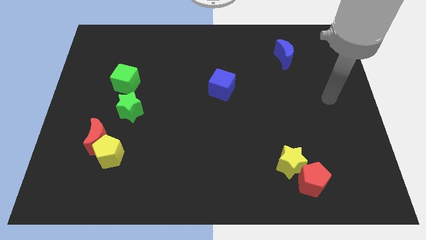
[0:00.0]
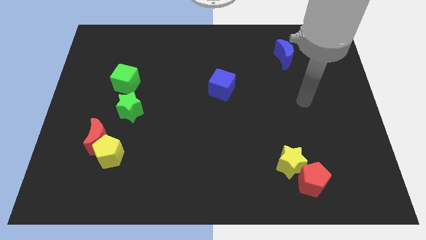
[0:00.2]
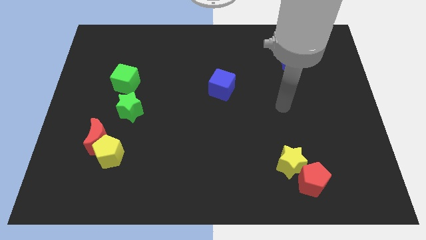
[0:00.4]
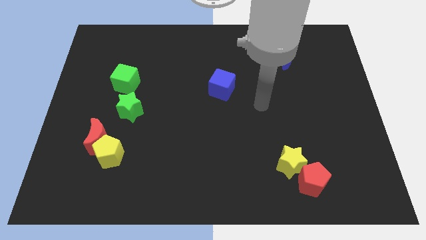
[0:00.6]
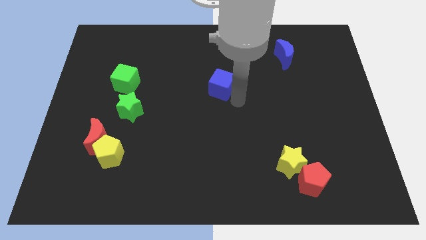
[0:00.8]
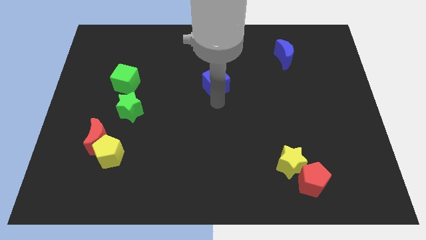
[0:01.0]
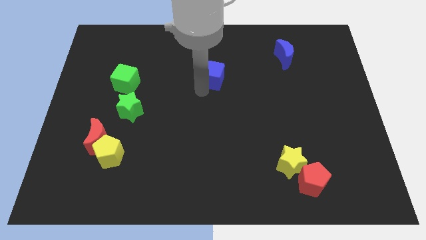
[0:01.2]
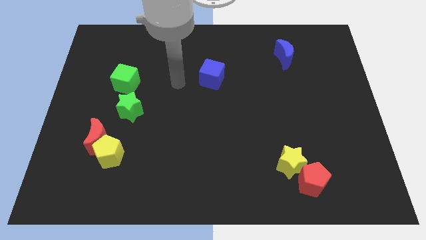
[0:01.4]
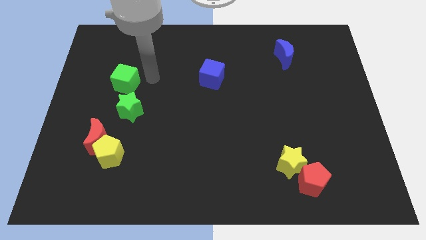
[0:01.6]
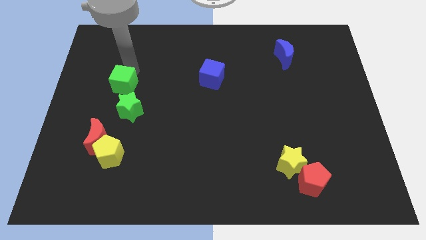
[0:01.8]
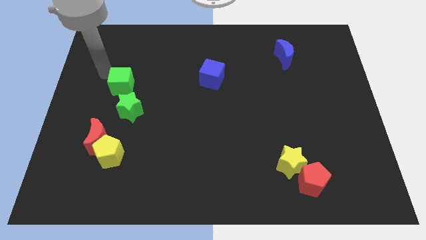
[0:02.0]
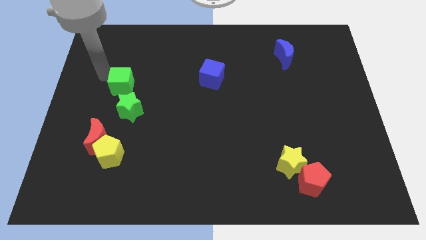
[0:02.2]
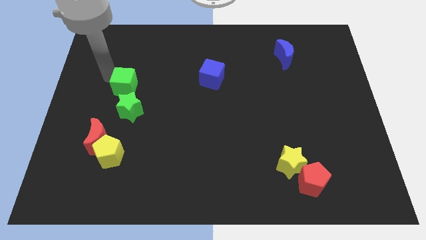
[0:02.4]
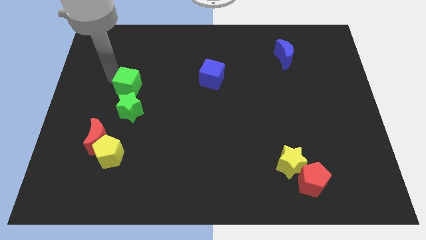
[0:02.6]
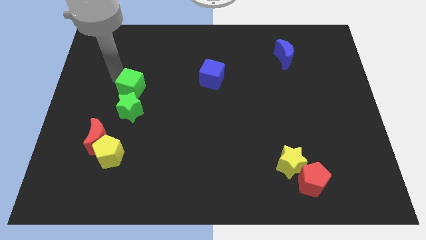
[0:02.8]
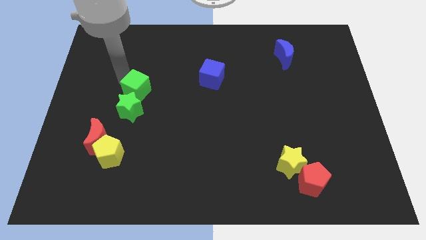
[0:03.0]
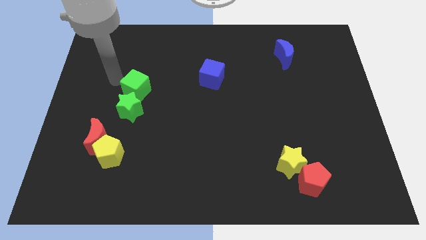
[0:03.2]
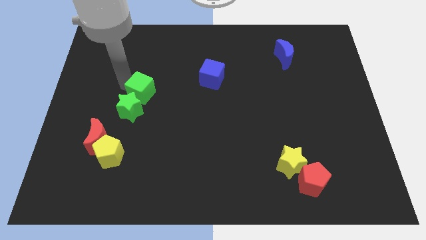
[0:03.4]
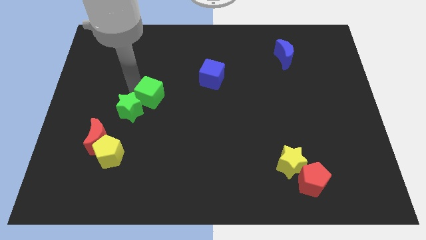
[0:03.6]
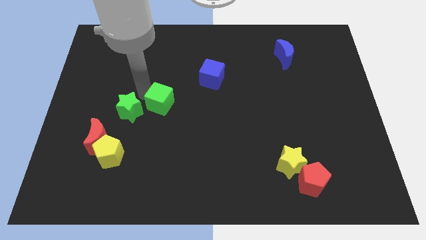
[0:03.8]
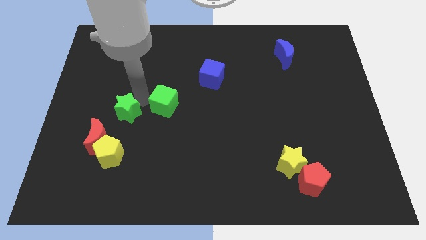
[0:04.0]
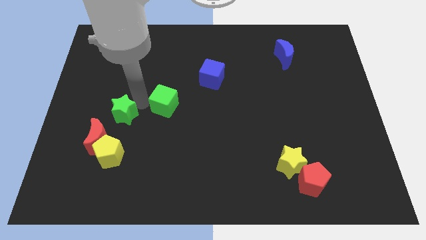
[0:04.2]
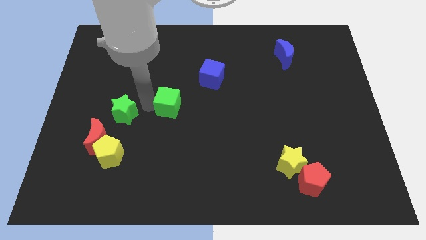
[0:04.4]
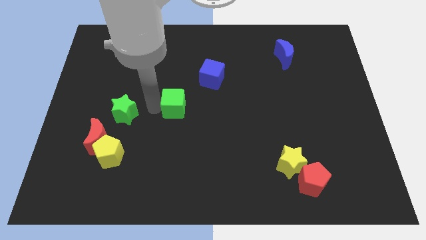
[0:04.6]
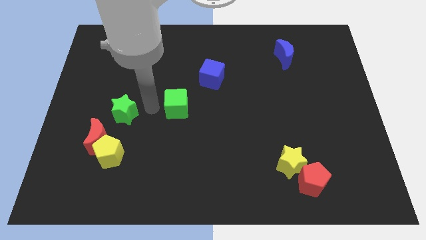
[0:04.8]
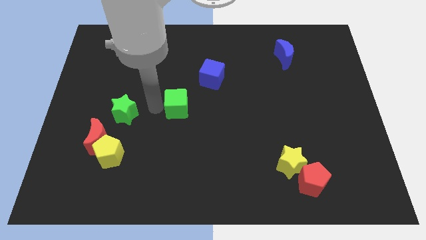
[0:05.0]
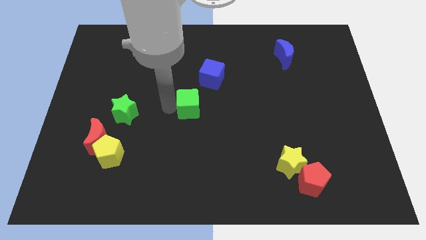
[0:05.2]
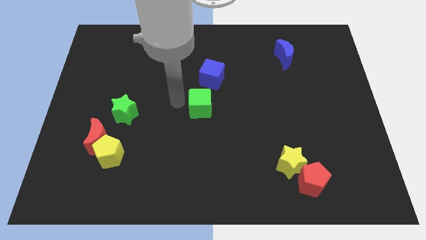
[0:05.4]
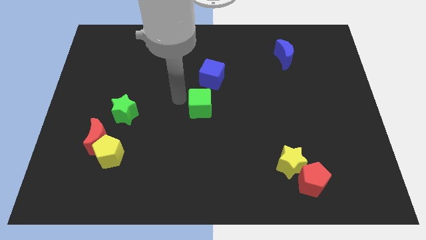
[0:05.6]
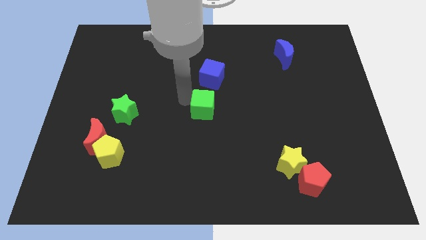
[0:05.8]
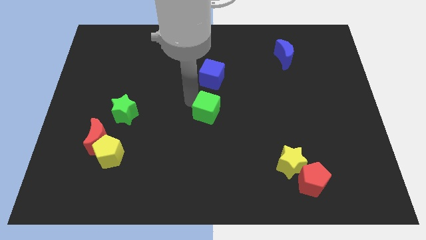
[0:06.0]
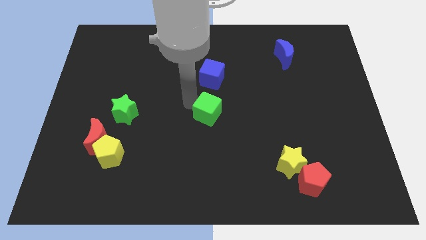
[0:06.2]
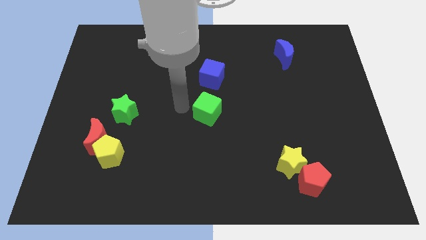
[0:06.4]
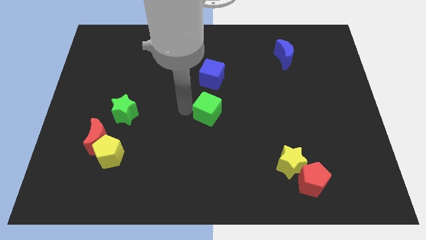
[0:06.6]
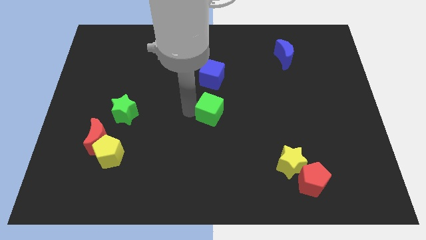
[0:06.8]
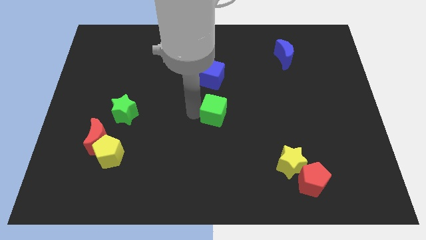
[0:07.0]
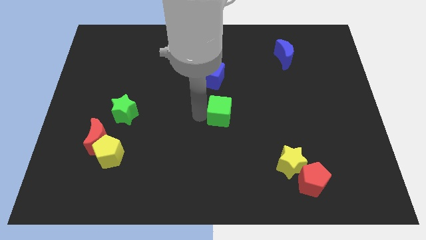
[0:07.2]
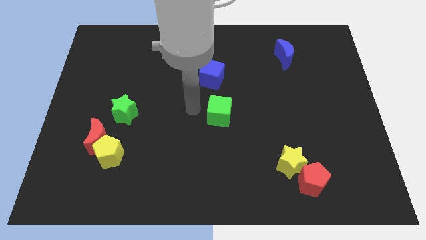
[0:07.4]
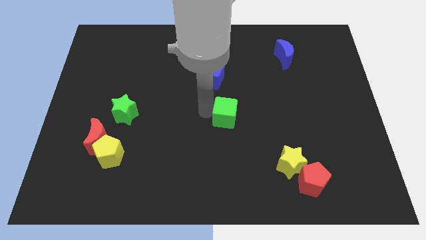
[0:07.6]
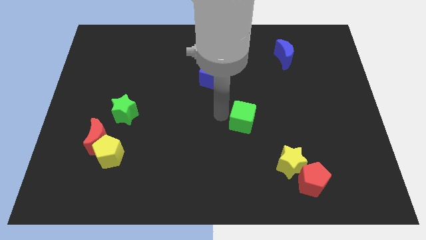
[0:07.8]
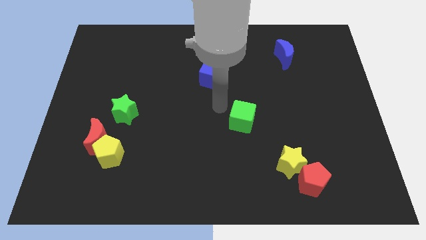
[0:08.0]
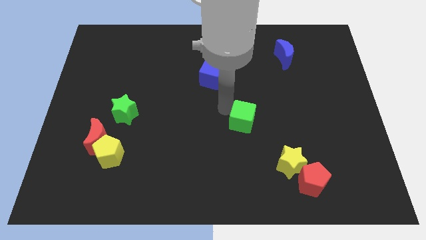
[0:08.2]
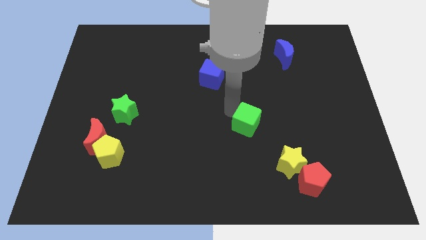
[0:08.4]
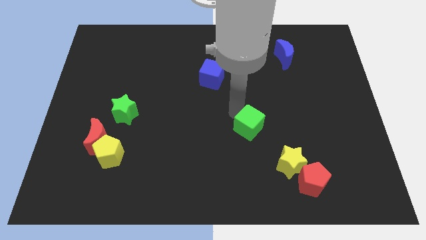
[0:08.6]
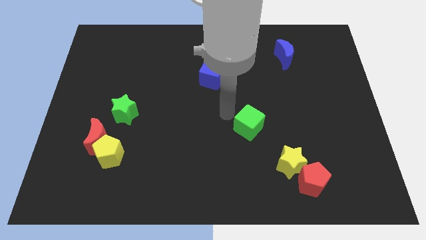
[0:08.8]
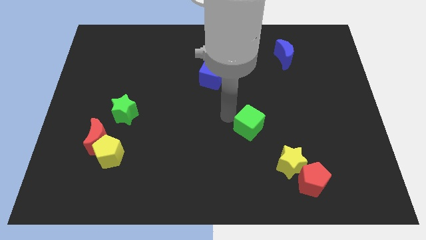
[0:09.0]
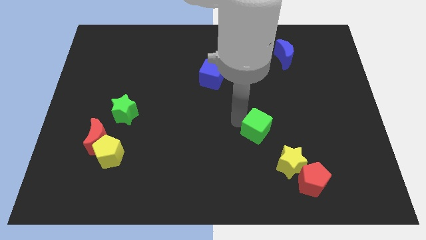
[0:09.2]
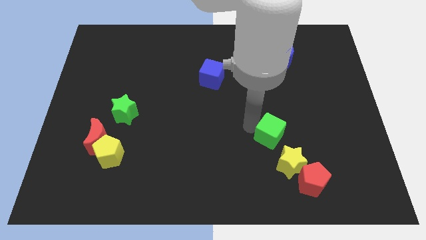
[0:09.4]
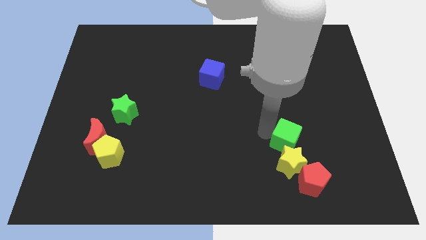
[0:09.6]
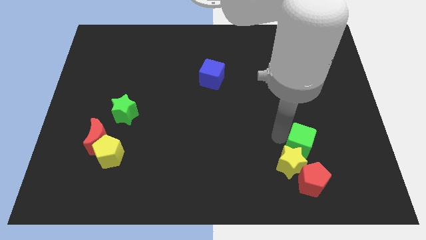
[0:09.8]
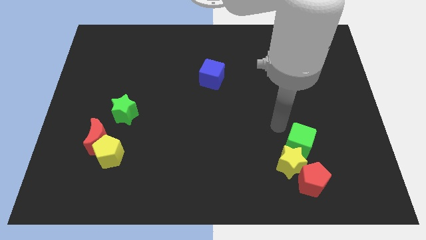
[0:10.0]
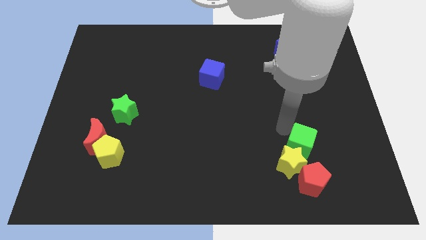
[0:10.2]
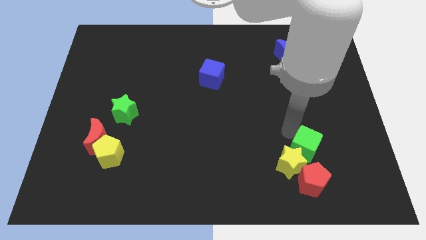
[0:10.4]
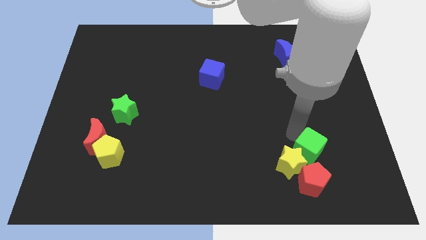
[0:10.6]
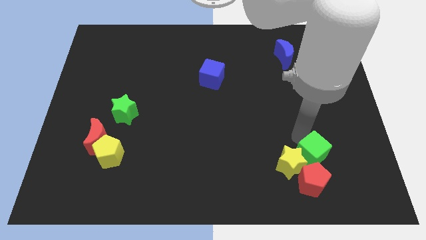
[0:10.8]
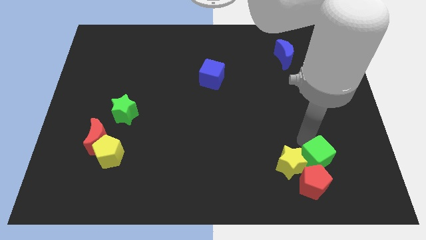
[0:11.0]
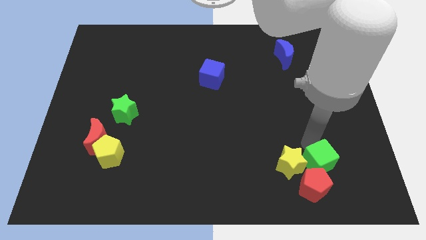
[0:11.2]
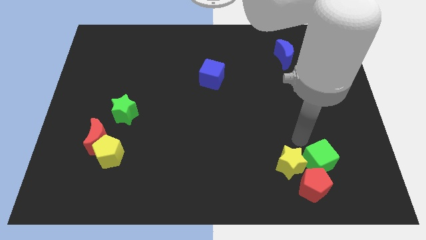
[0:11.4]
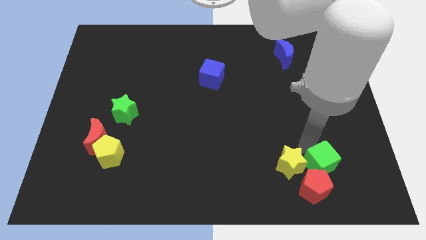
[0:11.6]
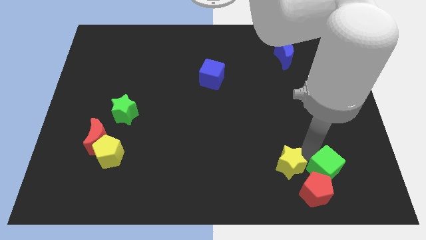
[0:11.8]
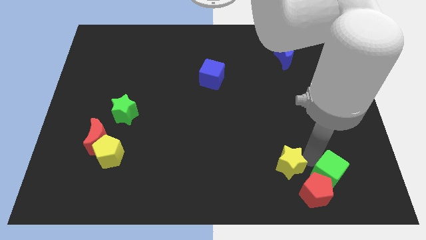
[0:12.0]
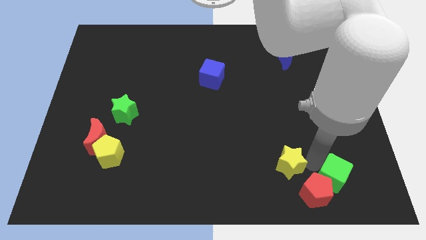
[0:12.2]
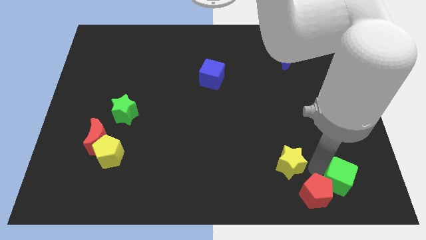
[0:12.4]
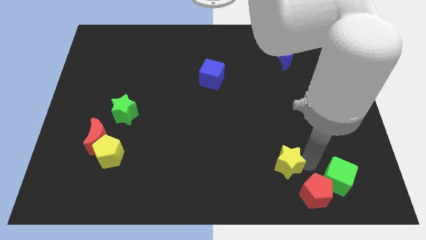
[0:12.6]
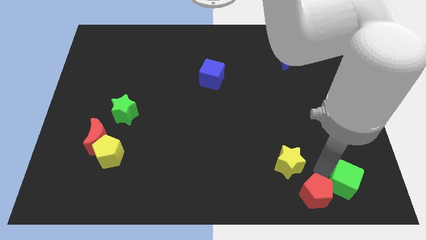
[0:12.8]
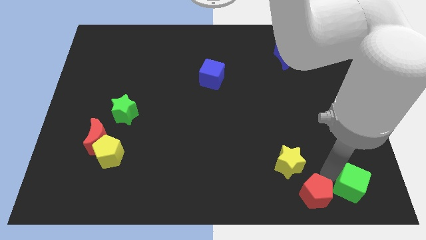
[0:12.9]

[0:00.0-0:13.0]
put the green cube to the lower right corner

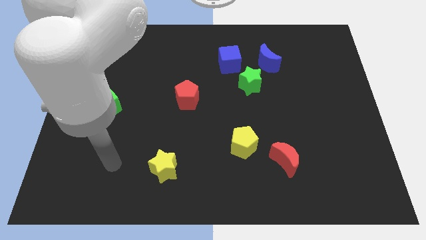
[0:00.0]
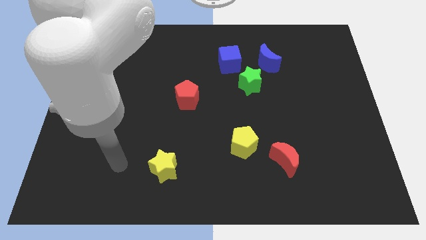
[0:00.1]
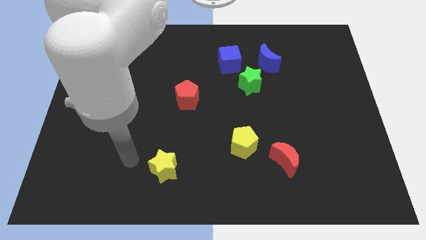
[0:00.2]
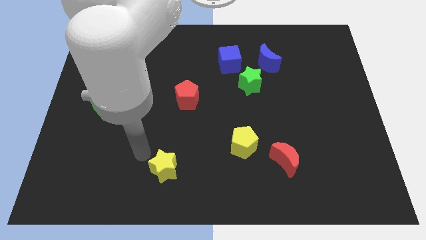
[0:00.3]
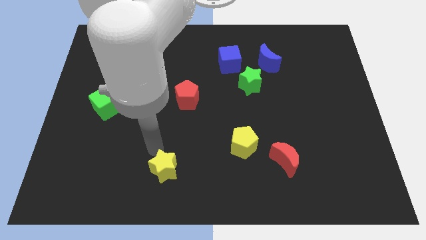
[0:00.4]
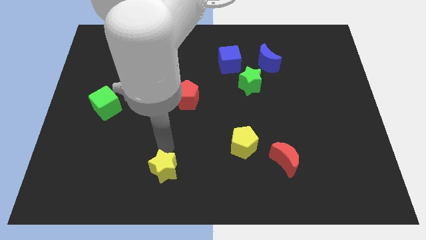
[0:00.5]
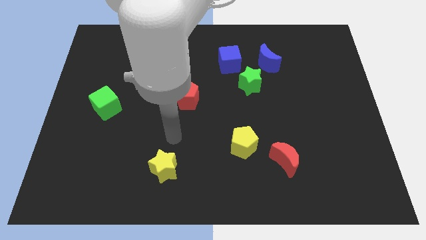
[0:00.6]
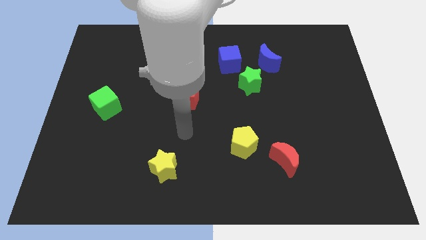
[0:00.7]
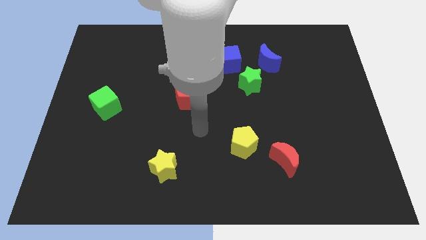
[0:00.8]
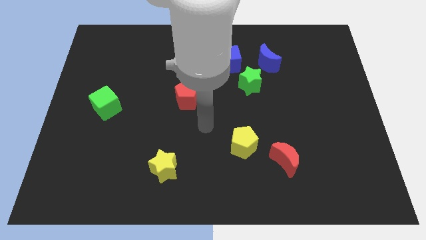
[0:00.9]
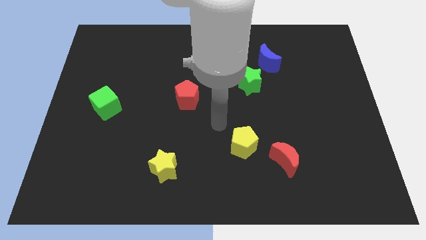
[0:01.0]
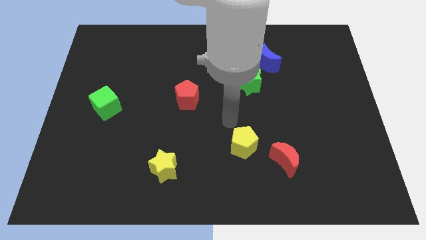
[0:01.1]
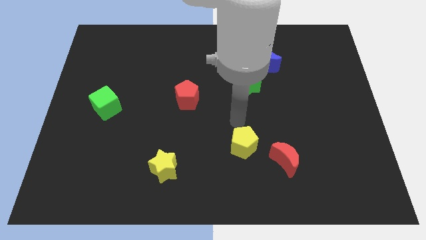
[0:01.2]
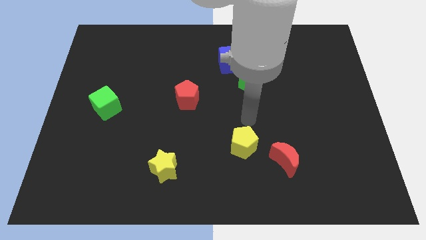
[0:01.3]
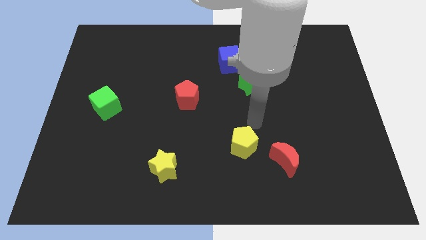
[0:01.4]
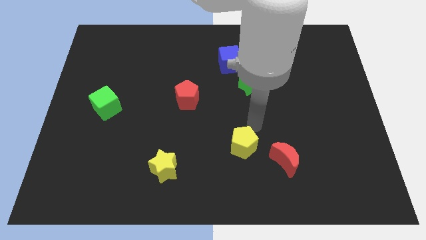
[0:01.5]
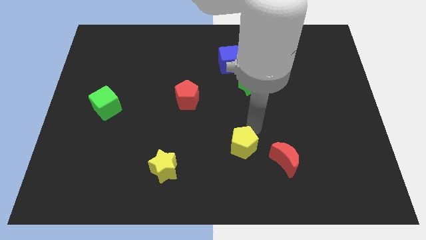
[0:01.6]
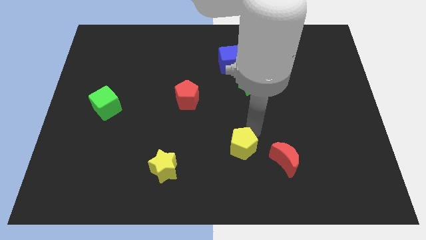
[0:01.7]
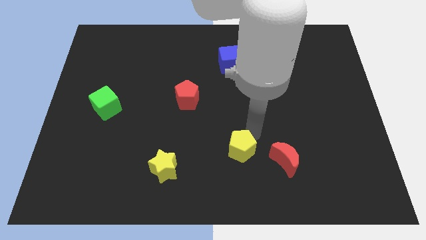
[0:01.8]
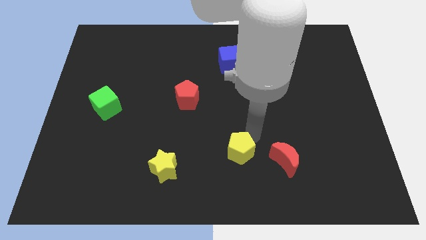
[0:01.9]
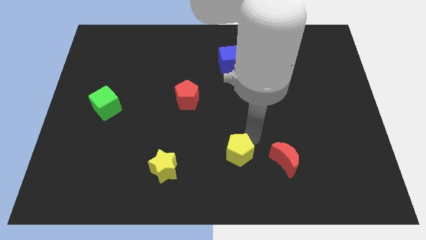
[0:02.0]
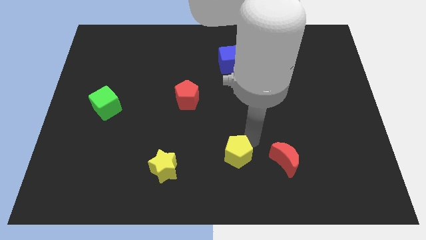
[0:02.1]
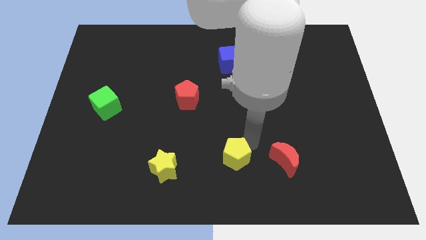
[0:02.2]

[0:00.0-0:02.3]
move the yellow pentagon to the bottom

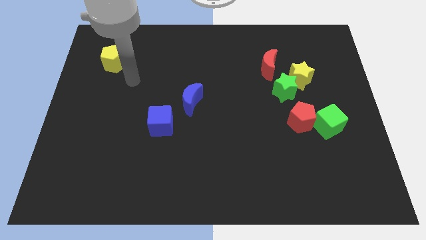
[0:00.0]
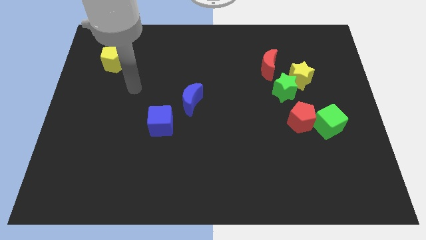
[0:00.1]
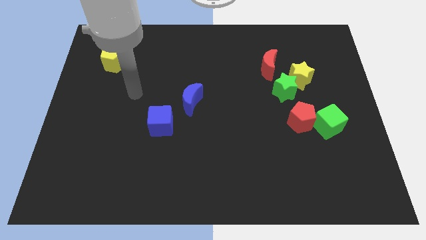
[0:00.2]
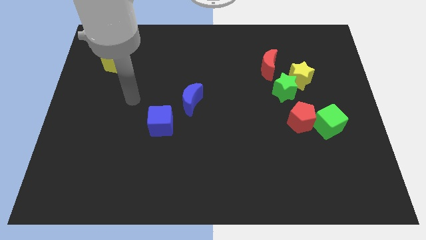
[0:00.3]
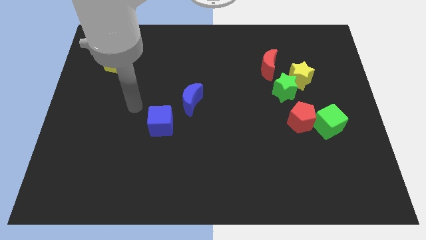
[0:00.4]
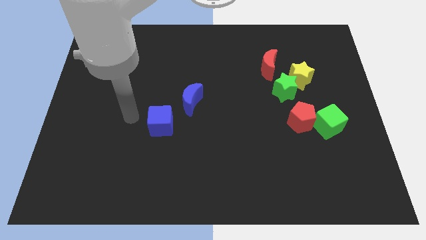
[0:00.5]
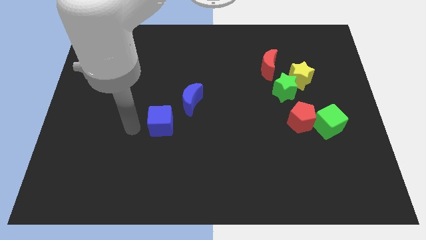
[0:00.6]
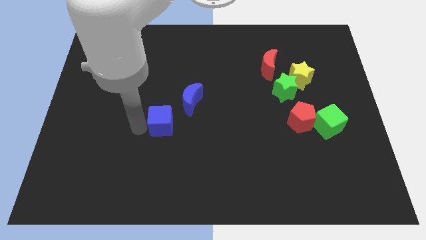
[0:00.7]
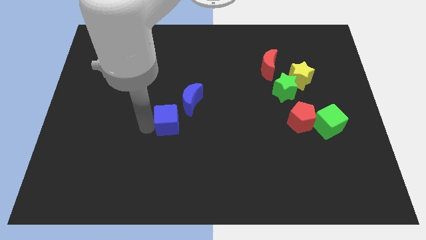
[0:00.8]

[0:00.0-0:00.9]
move the blue cube to the middle of the board
